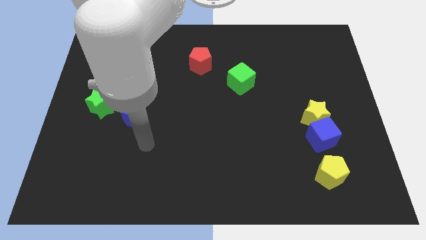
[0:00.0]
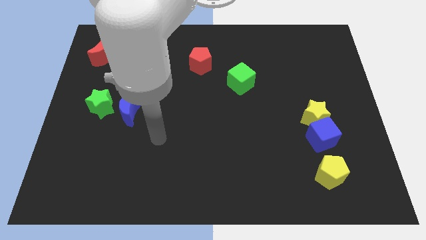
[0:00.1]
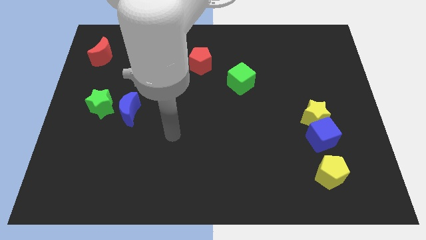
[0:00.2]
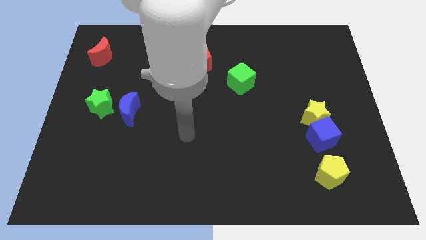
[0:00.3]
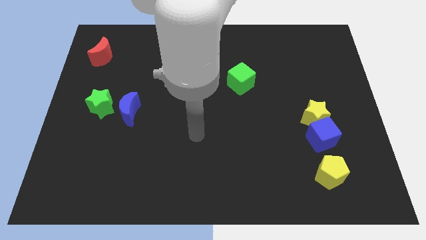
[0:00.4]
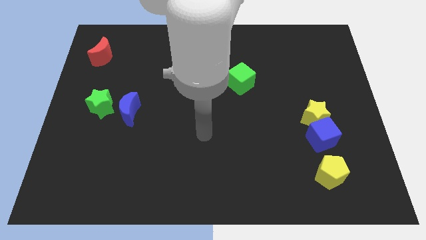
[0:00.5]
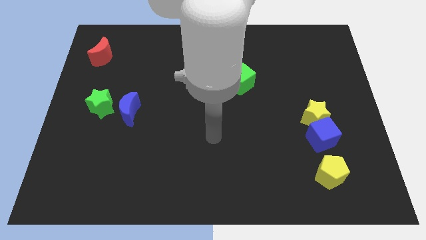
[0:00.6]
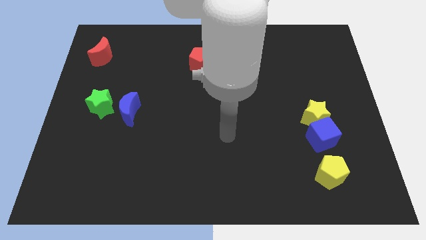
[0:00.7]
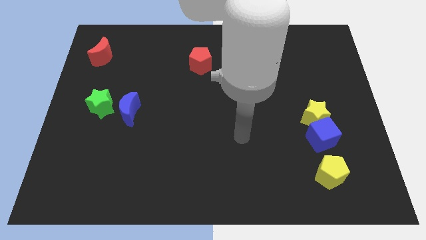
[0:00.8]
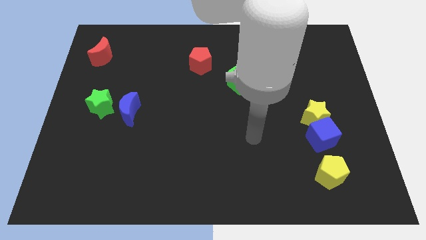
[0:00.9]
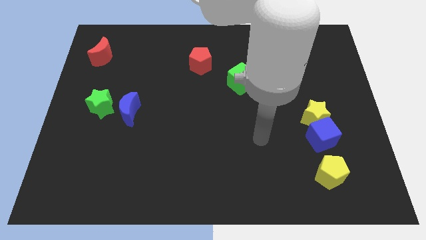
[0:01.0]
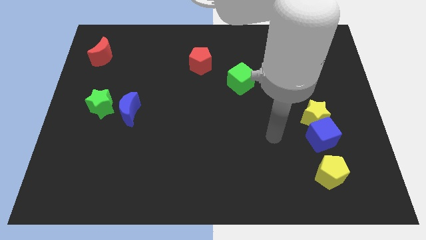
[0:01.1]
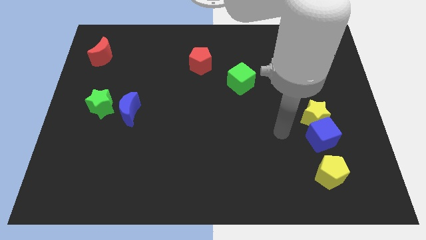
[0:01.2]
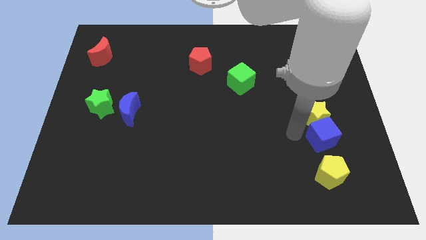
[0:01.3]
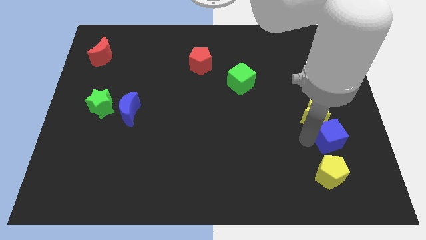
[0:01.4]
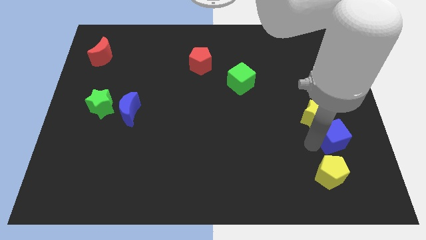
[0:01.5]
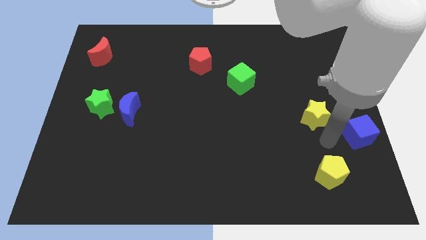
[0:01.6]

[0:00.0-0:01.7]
move the yellow star away from the blue cube

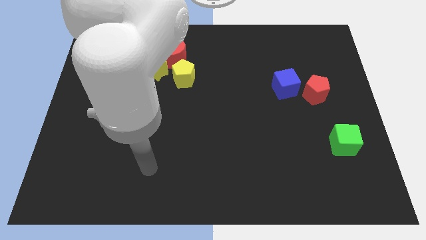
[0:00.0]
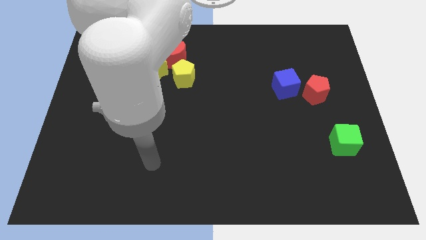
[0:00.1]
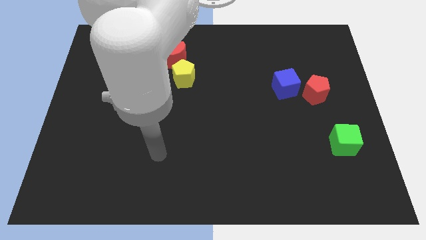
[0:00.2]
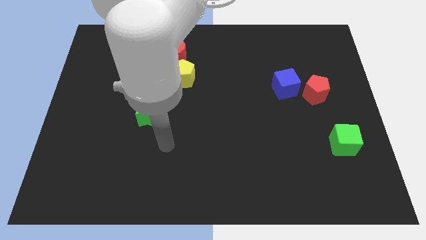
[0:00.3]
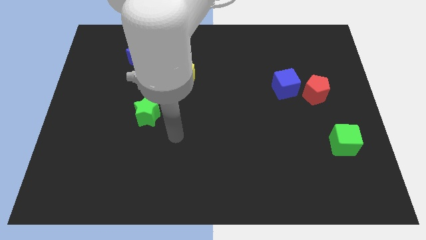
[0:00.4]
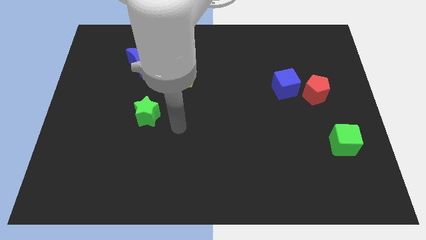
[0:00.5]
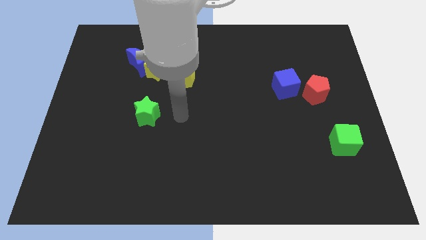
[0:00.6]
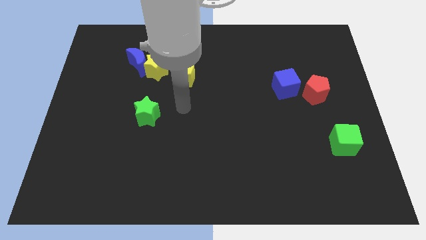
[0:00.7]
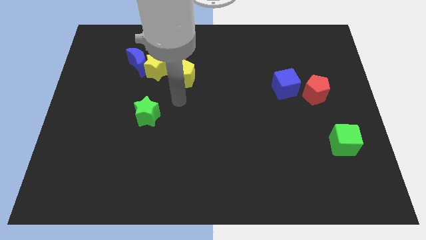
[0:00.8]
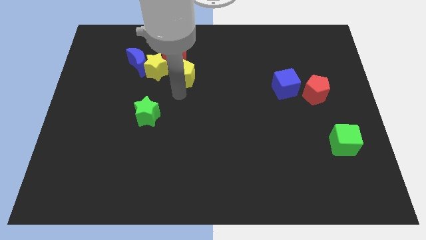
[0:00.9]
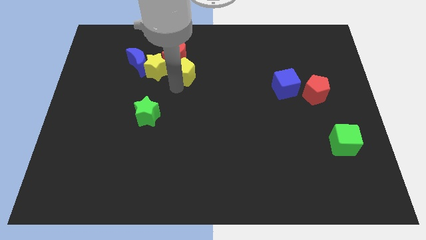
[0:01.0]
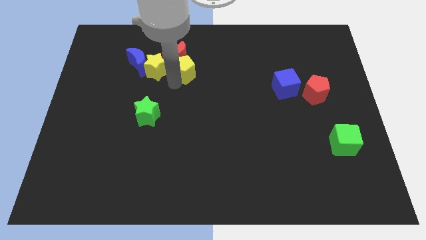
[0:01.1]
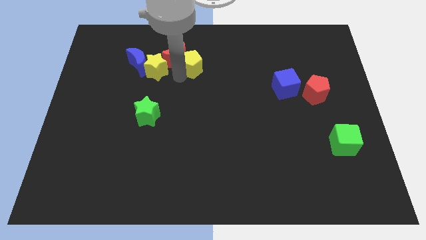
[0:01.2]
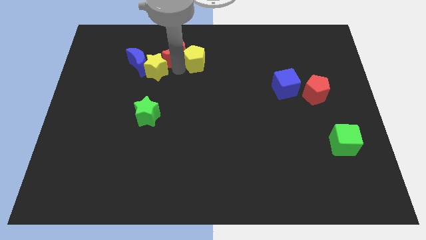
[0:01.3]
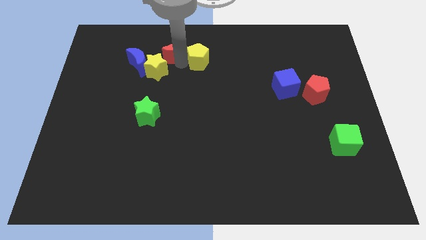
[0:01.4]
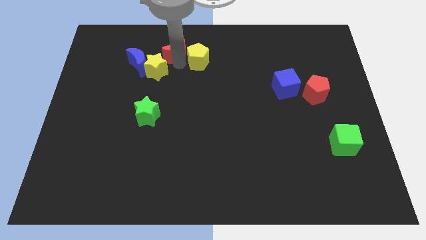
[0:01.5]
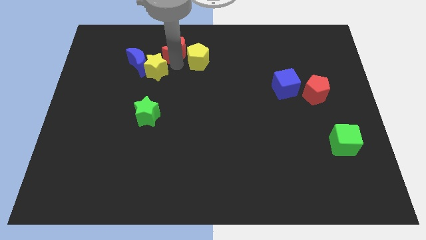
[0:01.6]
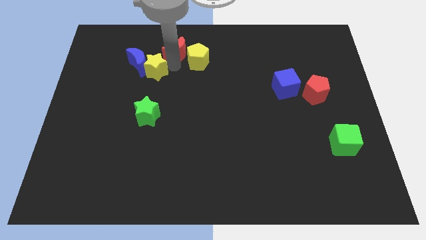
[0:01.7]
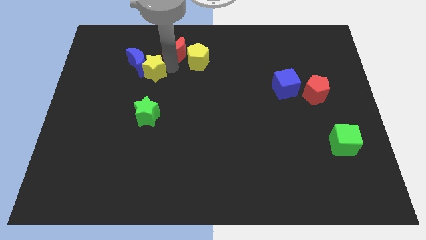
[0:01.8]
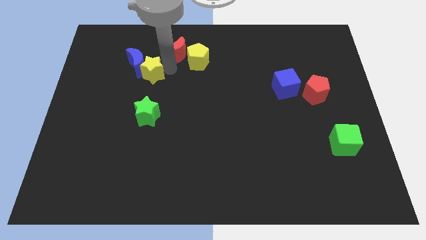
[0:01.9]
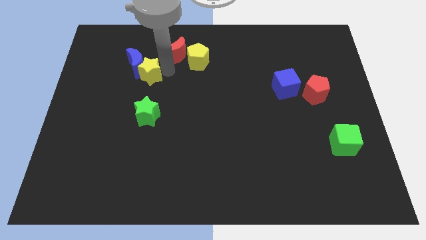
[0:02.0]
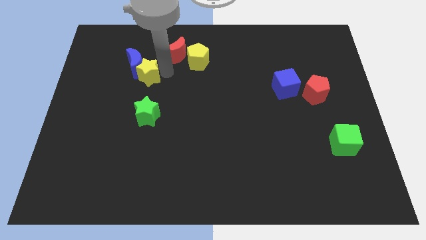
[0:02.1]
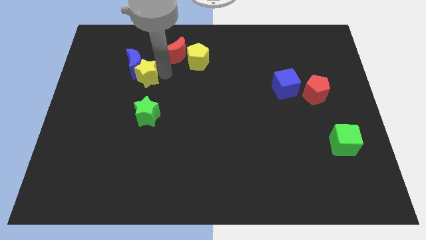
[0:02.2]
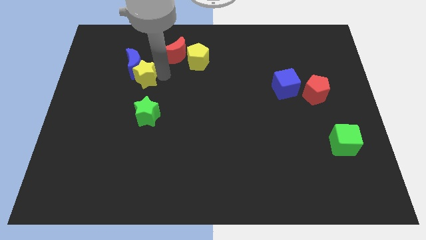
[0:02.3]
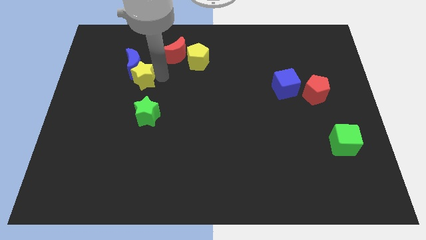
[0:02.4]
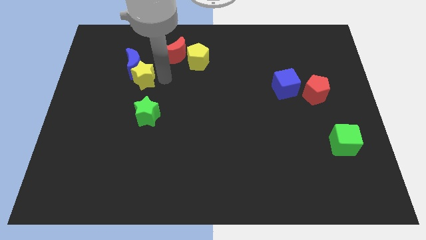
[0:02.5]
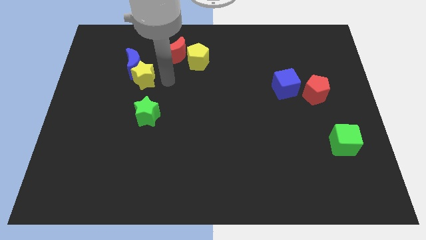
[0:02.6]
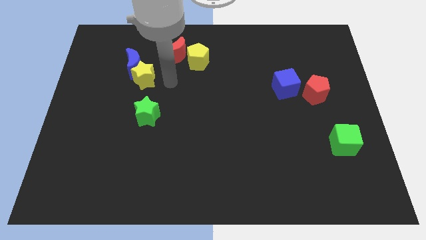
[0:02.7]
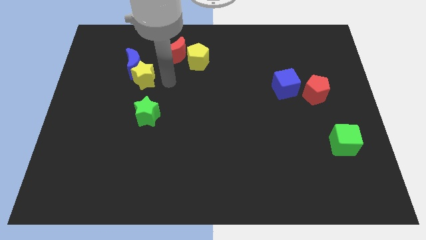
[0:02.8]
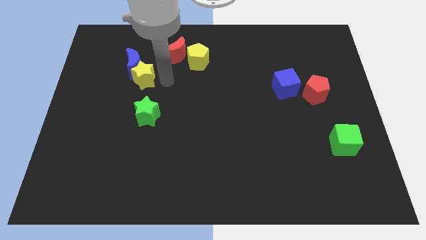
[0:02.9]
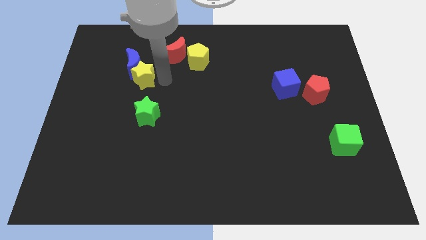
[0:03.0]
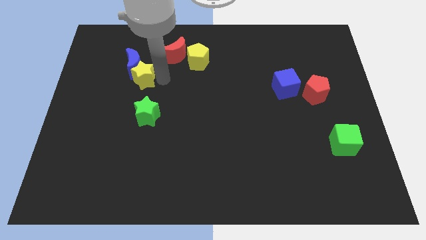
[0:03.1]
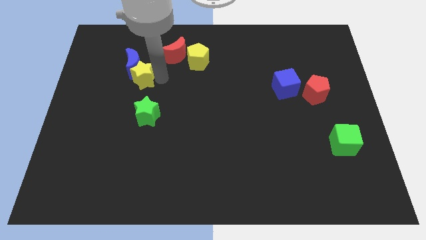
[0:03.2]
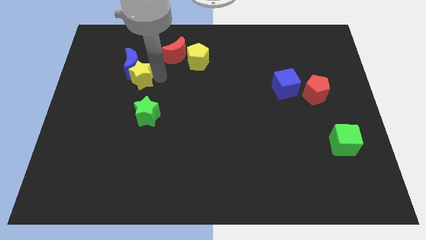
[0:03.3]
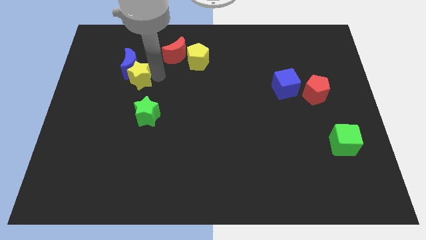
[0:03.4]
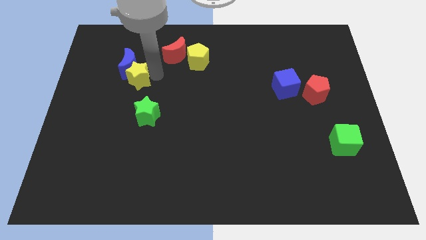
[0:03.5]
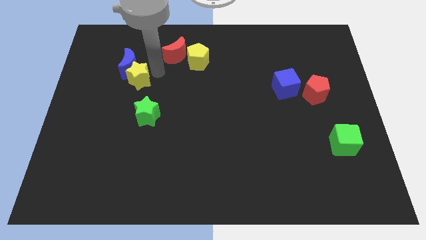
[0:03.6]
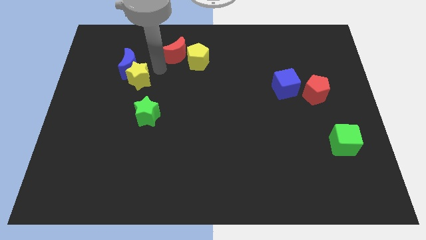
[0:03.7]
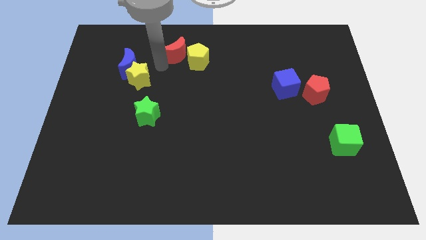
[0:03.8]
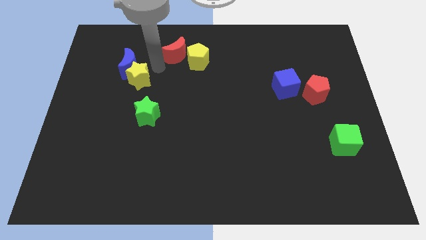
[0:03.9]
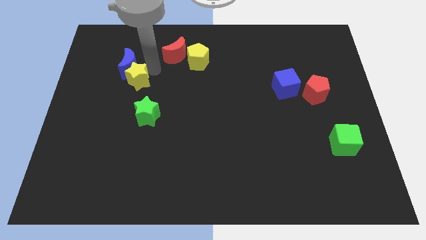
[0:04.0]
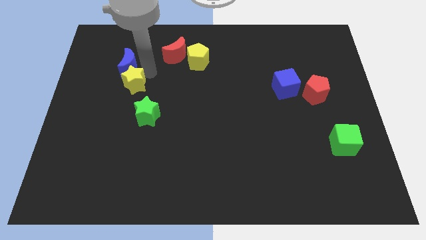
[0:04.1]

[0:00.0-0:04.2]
move the yellow star away from the blue moon, red moon, and yellow pentagon

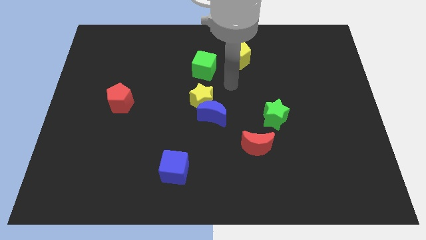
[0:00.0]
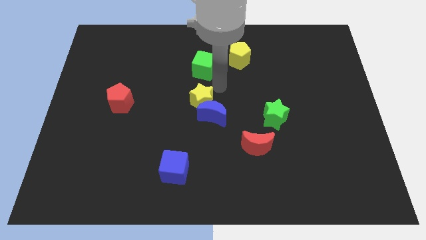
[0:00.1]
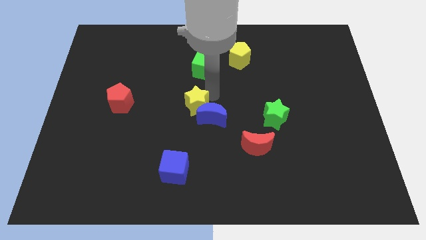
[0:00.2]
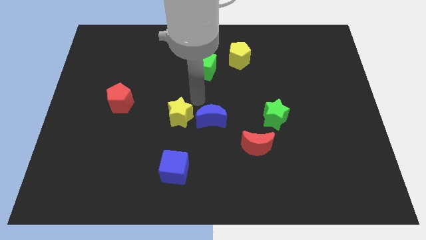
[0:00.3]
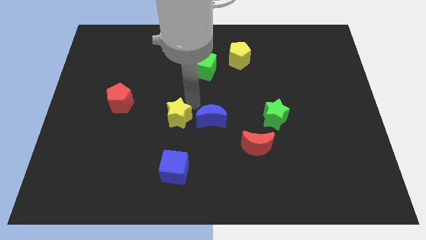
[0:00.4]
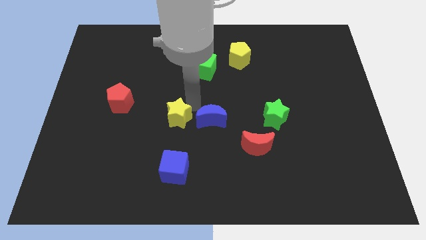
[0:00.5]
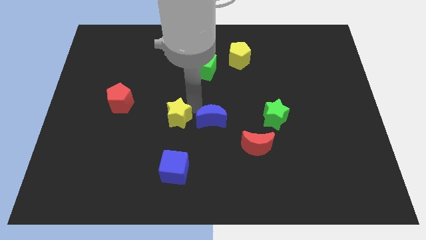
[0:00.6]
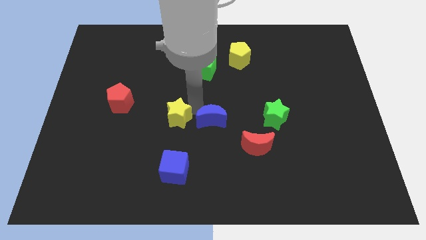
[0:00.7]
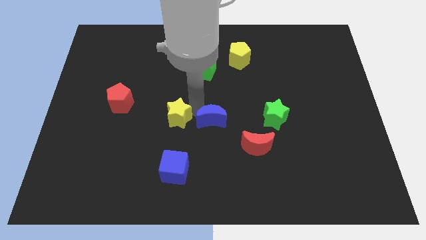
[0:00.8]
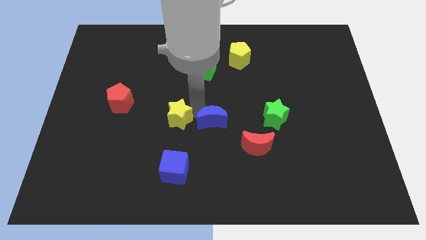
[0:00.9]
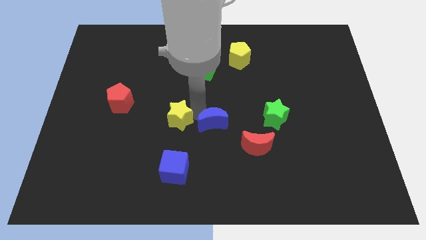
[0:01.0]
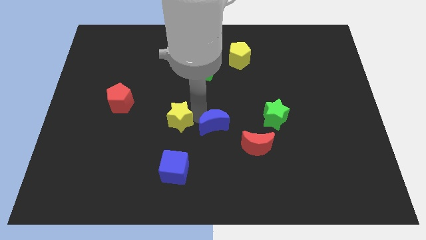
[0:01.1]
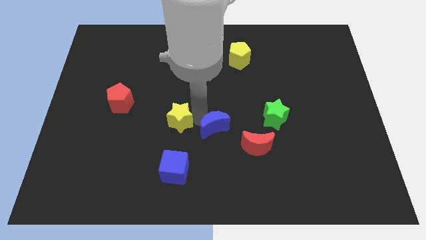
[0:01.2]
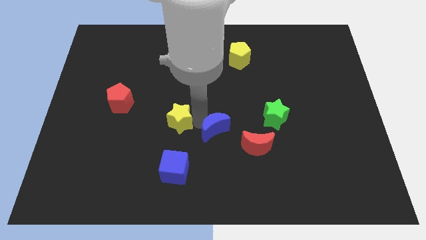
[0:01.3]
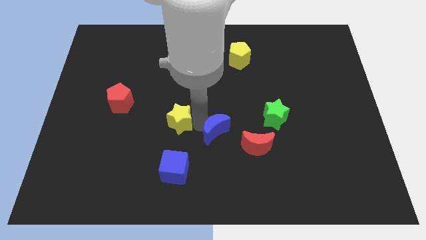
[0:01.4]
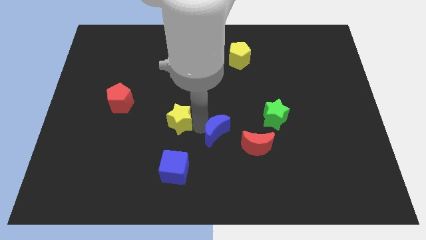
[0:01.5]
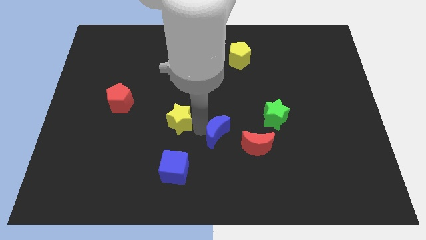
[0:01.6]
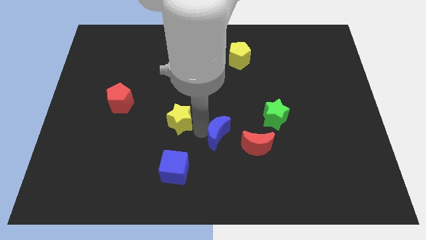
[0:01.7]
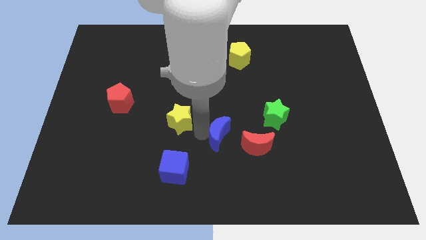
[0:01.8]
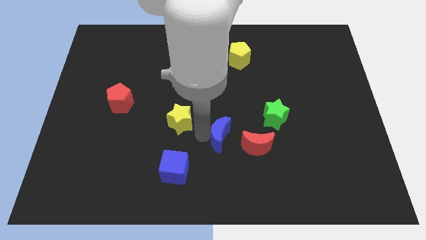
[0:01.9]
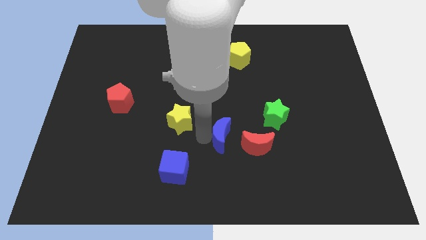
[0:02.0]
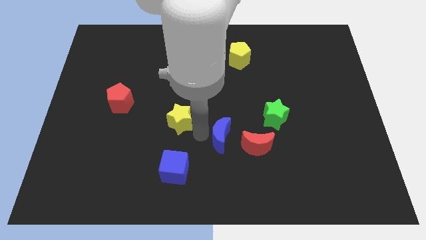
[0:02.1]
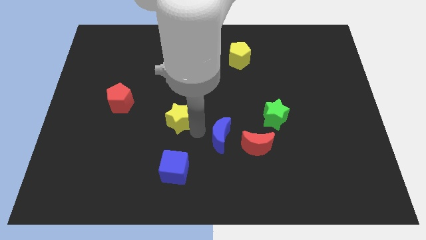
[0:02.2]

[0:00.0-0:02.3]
separate the blue moon from the yellow star

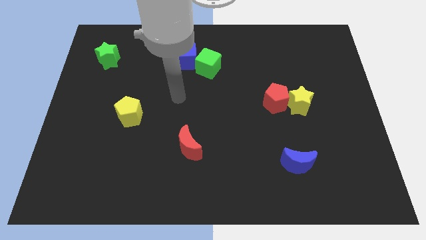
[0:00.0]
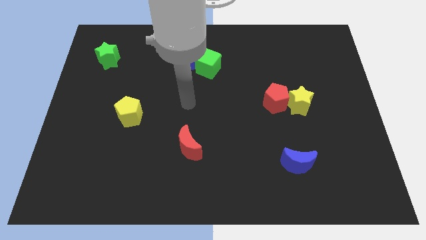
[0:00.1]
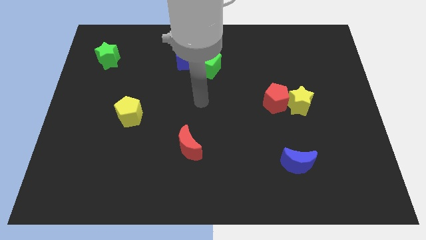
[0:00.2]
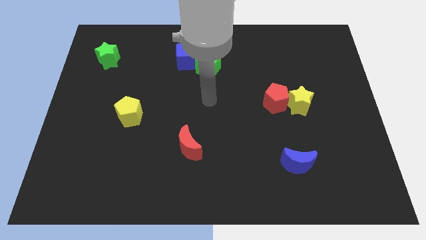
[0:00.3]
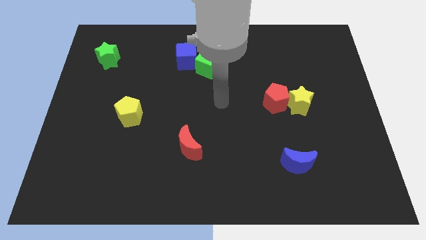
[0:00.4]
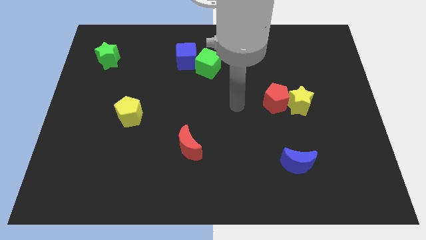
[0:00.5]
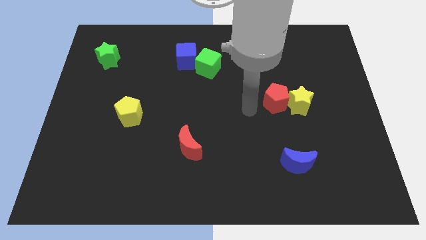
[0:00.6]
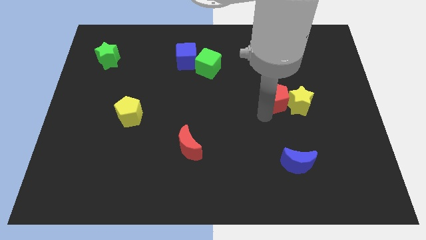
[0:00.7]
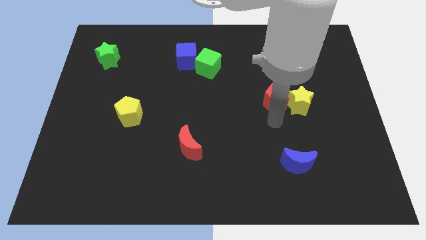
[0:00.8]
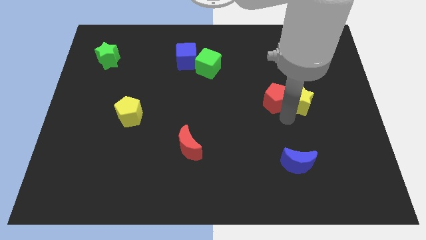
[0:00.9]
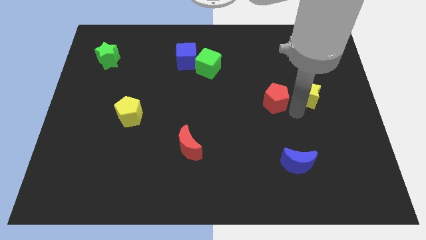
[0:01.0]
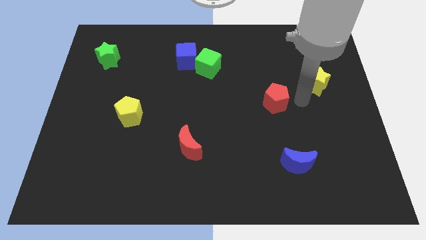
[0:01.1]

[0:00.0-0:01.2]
pull the red pentagon apart from the yellow star
